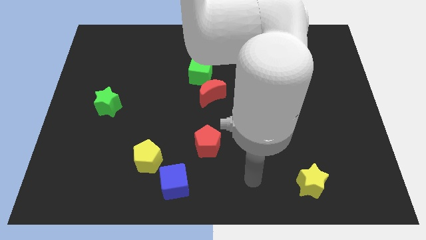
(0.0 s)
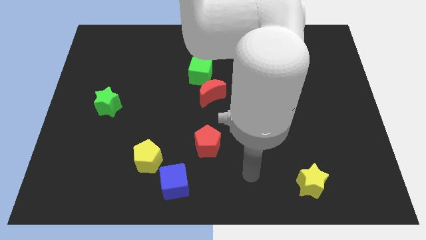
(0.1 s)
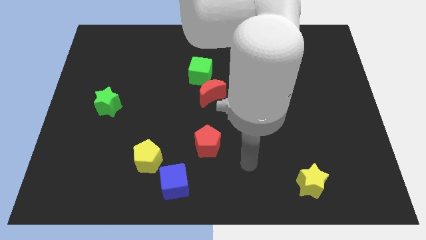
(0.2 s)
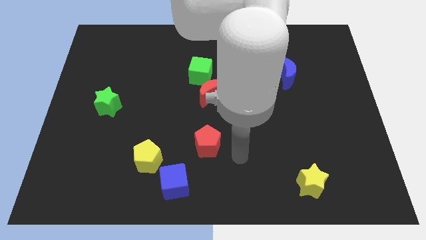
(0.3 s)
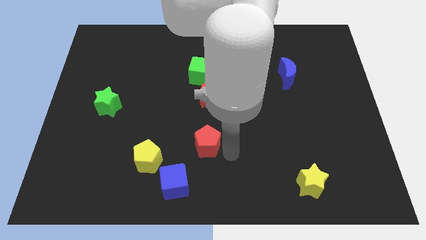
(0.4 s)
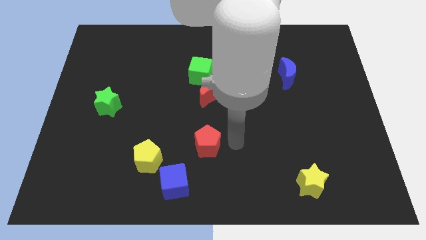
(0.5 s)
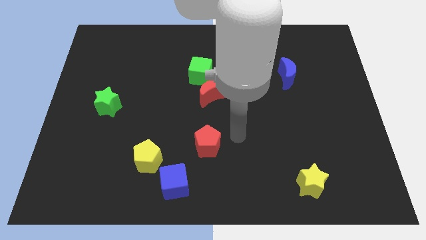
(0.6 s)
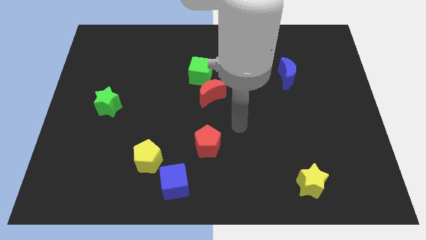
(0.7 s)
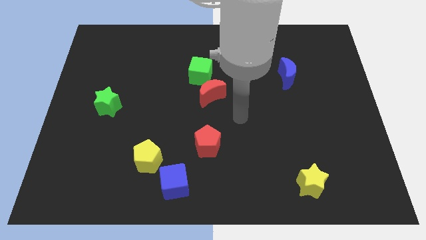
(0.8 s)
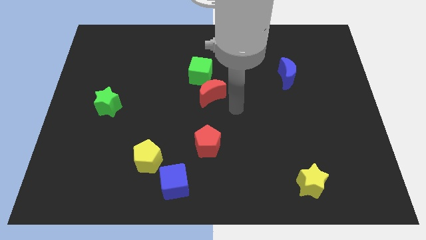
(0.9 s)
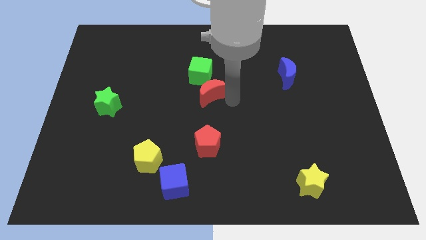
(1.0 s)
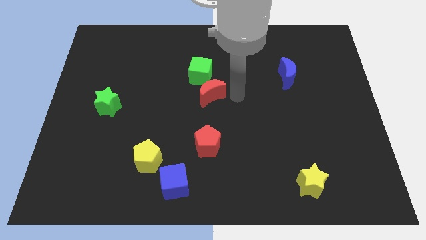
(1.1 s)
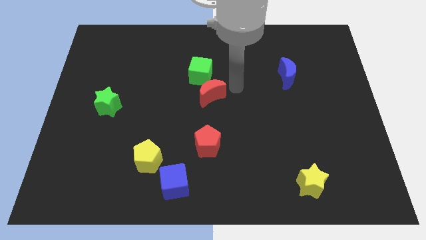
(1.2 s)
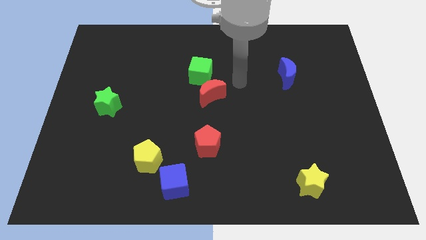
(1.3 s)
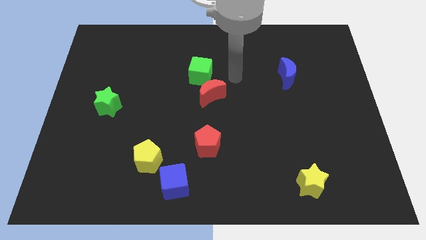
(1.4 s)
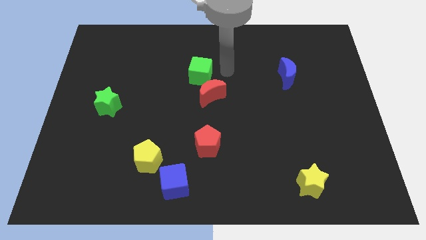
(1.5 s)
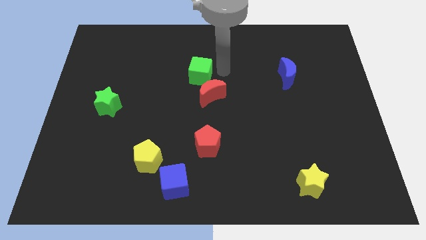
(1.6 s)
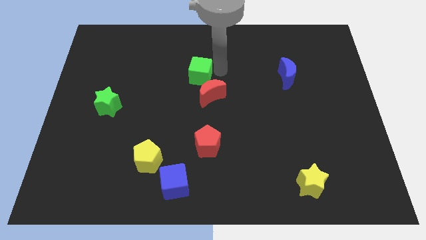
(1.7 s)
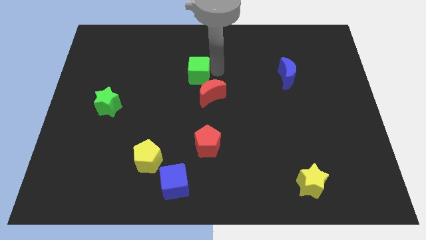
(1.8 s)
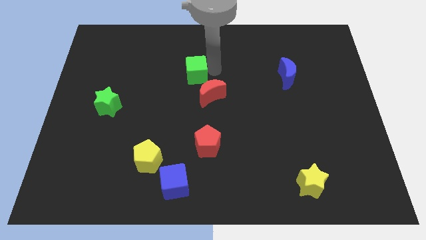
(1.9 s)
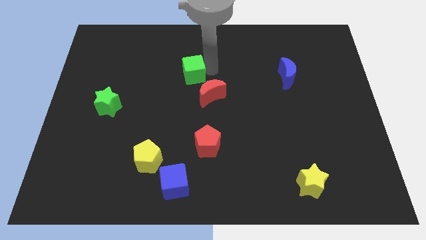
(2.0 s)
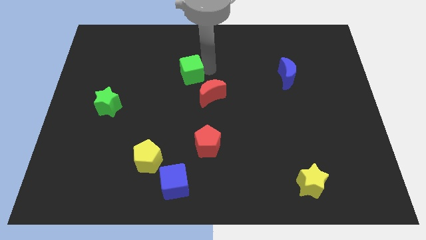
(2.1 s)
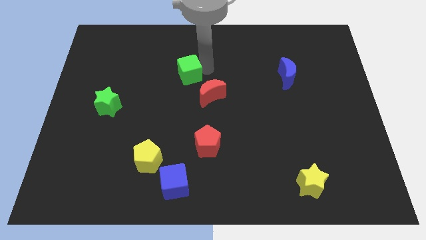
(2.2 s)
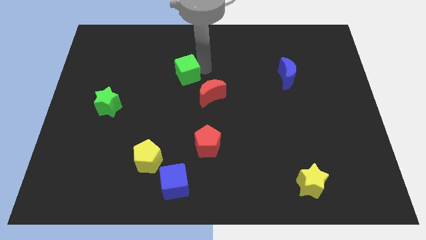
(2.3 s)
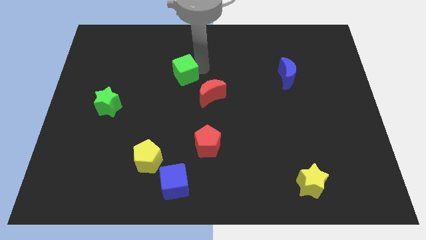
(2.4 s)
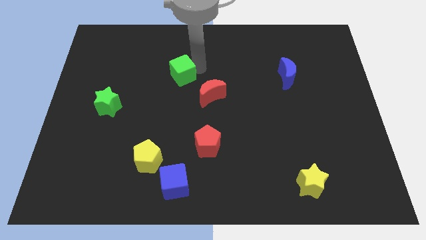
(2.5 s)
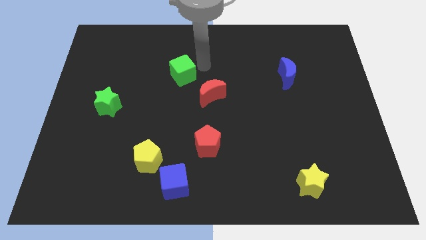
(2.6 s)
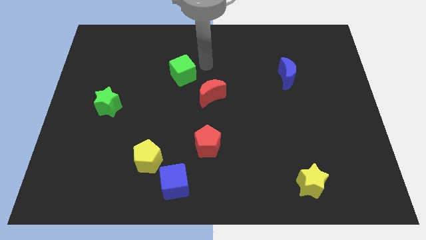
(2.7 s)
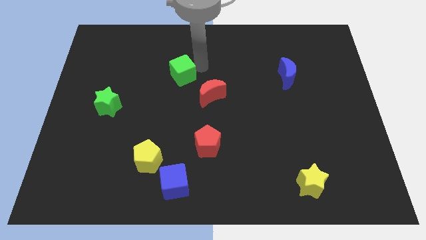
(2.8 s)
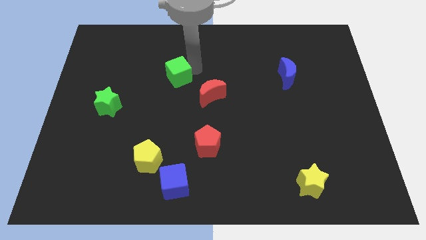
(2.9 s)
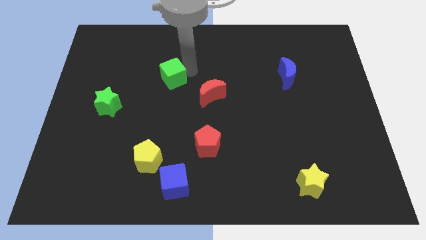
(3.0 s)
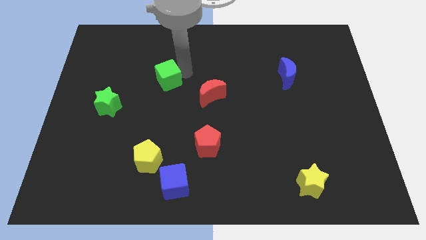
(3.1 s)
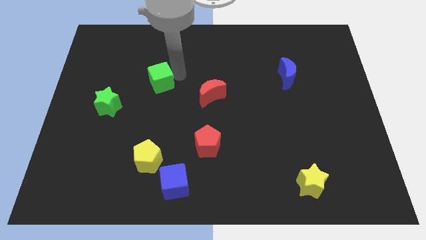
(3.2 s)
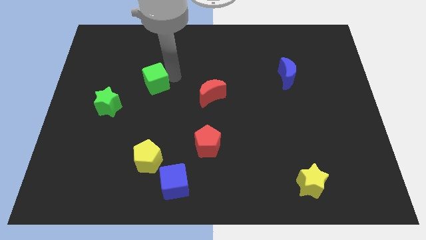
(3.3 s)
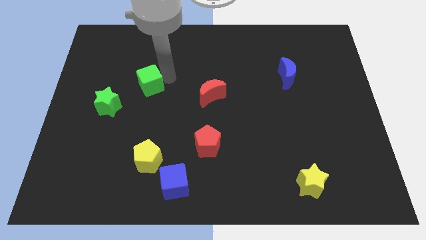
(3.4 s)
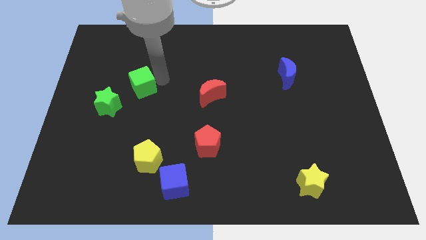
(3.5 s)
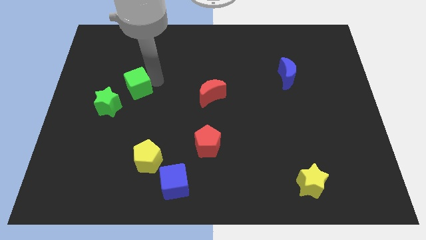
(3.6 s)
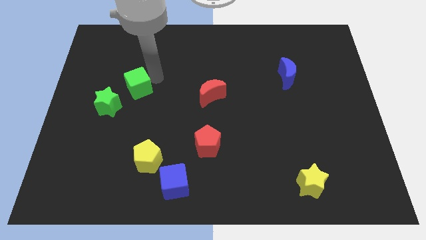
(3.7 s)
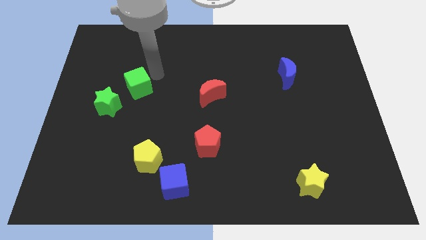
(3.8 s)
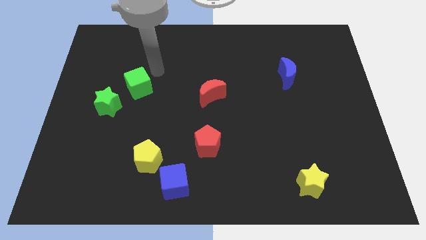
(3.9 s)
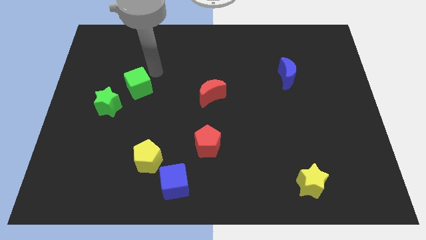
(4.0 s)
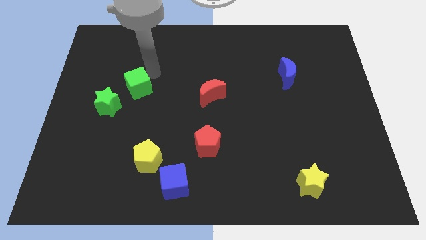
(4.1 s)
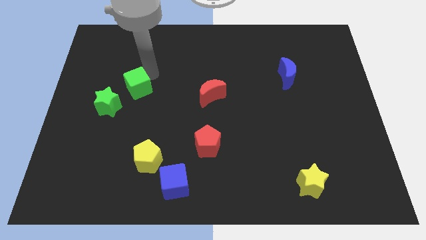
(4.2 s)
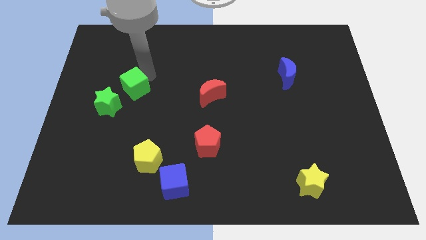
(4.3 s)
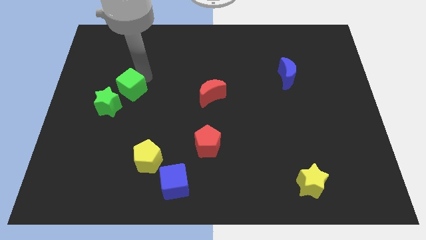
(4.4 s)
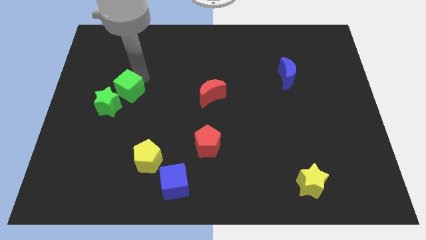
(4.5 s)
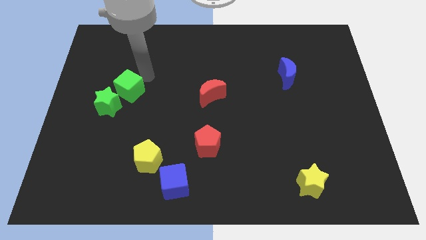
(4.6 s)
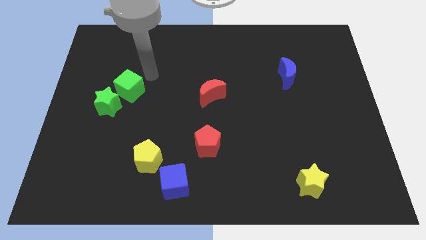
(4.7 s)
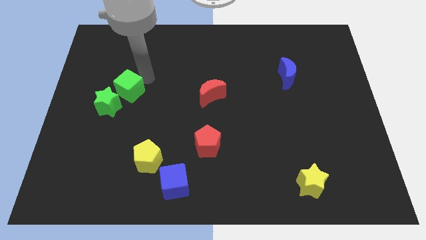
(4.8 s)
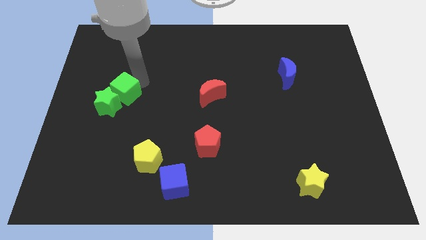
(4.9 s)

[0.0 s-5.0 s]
push the green cube to the green star

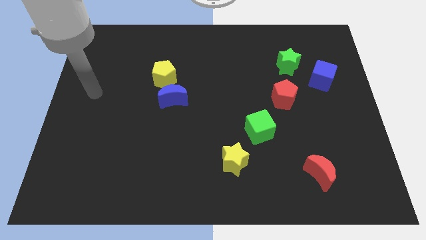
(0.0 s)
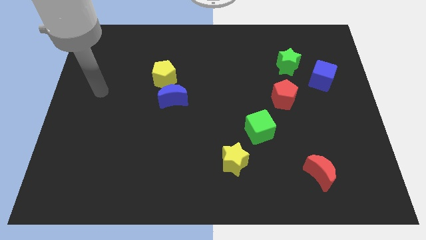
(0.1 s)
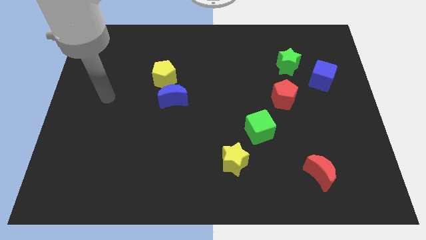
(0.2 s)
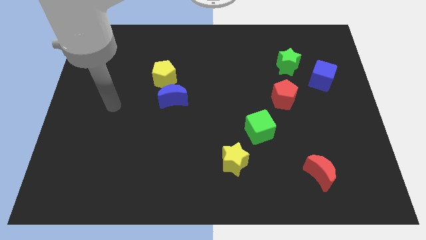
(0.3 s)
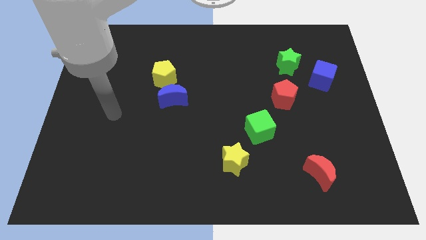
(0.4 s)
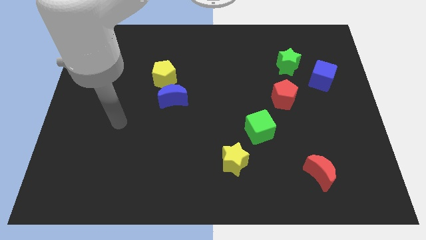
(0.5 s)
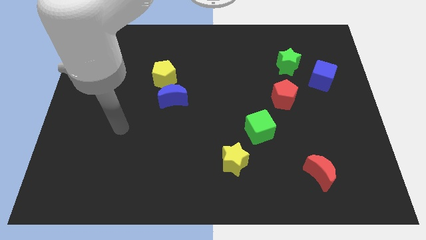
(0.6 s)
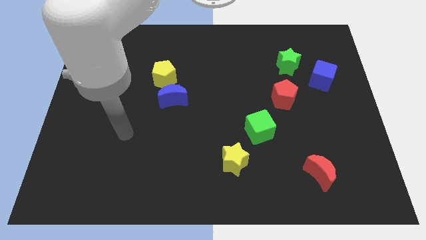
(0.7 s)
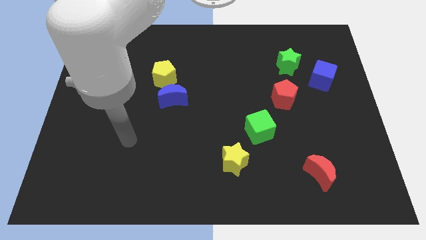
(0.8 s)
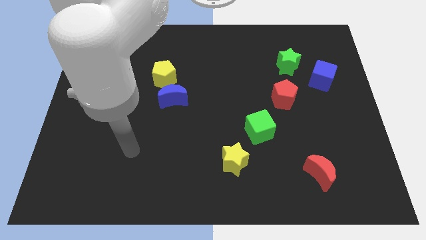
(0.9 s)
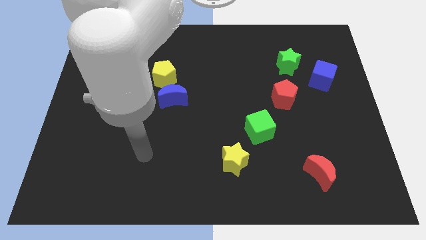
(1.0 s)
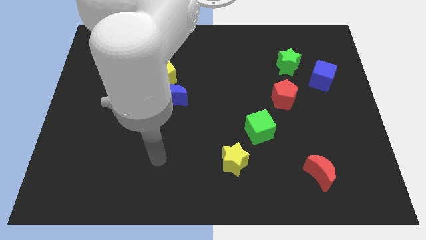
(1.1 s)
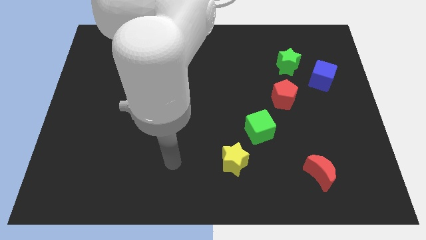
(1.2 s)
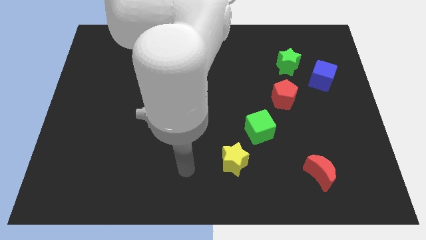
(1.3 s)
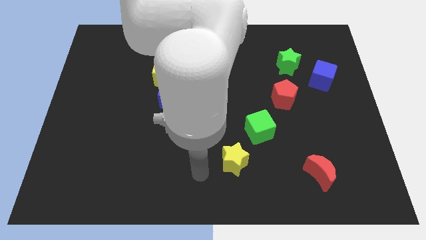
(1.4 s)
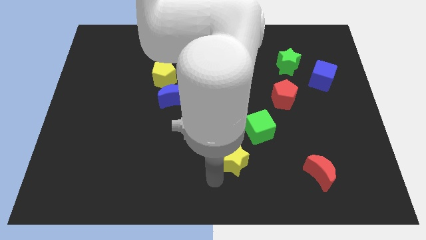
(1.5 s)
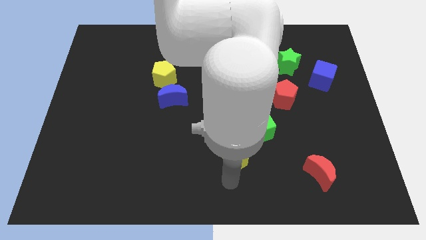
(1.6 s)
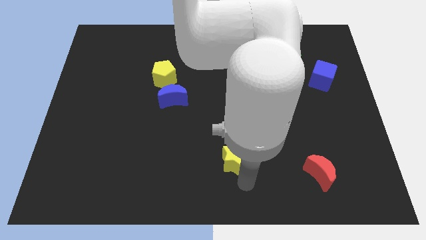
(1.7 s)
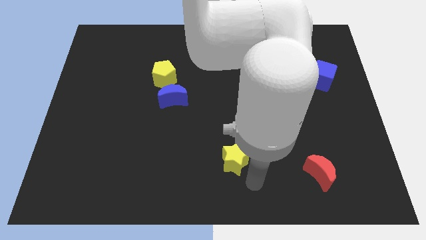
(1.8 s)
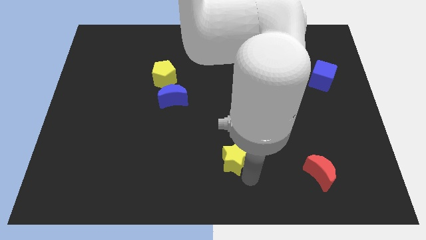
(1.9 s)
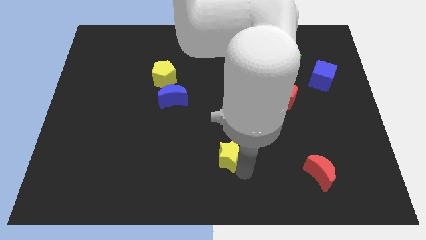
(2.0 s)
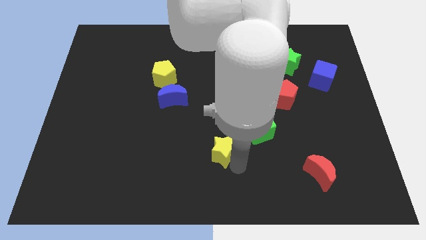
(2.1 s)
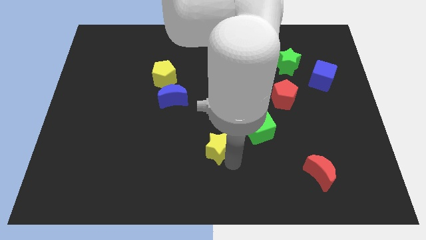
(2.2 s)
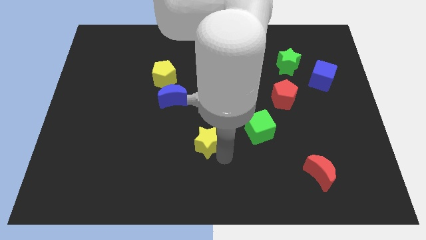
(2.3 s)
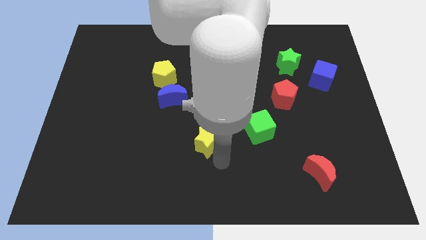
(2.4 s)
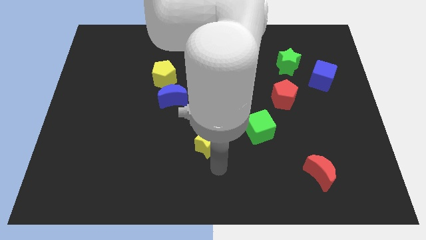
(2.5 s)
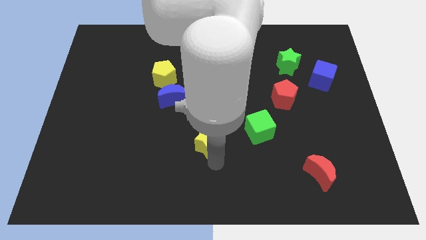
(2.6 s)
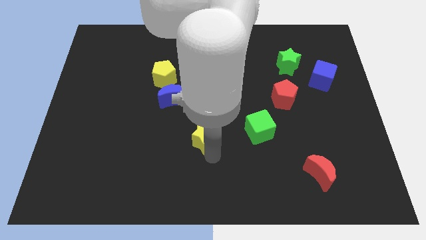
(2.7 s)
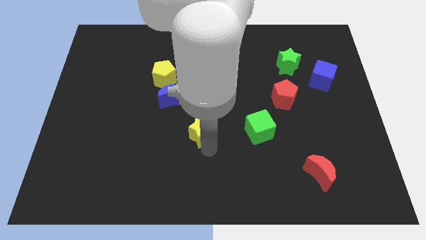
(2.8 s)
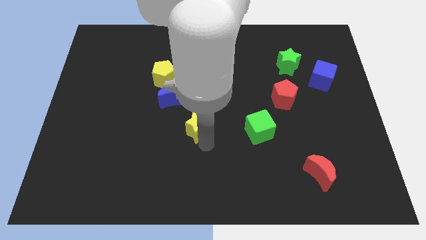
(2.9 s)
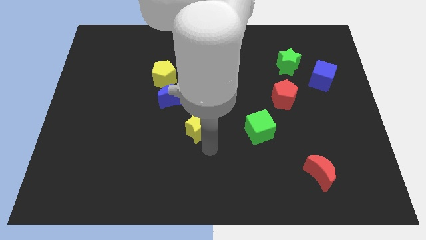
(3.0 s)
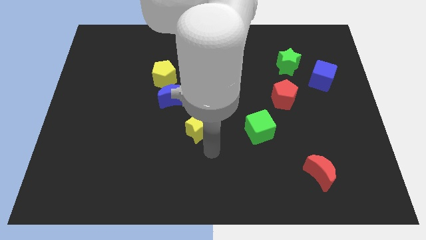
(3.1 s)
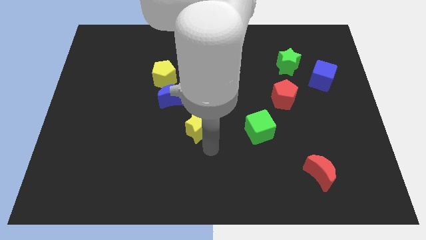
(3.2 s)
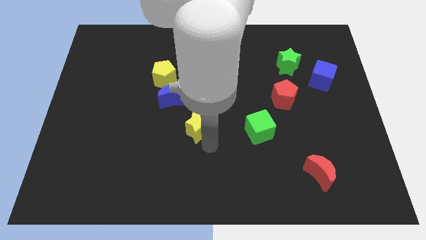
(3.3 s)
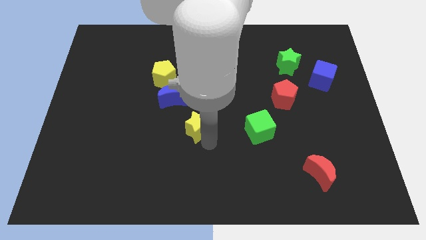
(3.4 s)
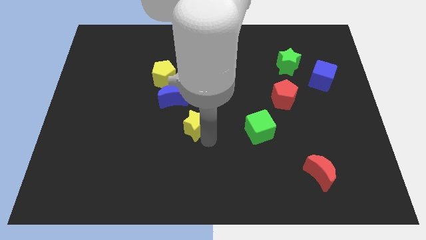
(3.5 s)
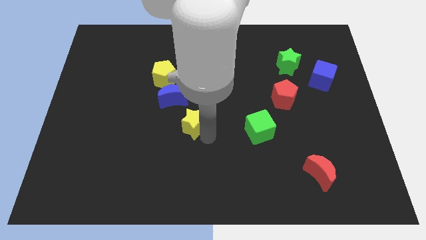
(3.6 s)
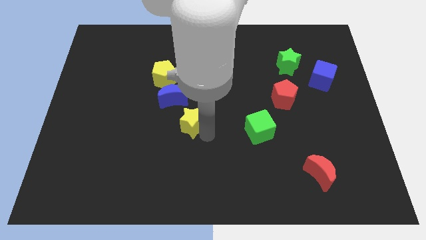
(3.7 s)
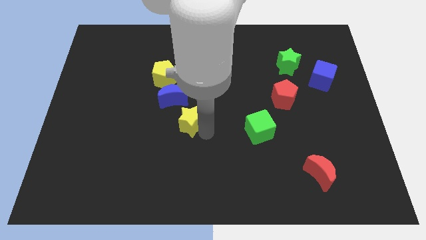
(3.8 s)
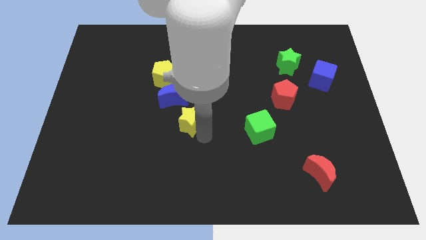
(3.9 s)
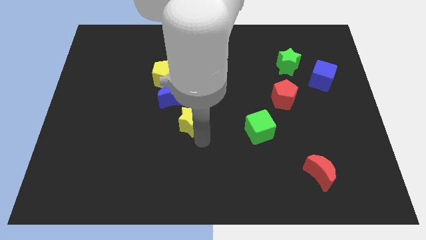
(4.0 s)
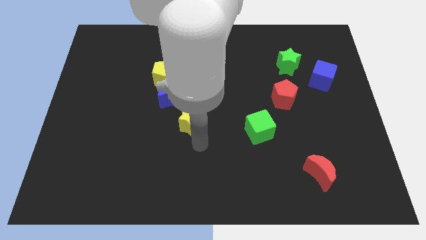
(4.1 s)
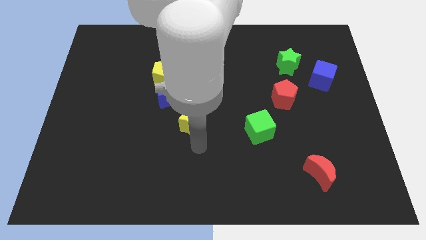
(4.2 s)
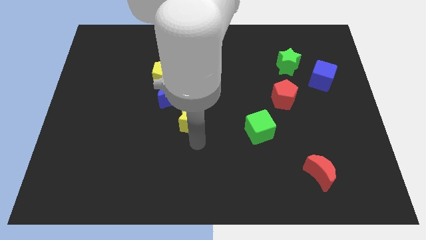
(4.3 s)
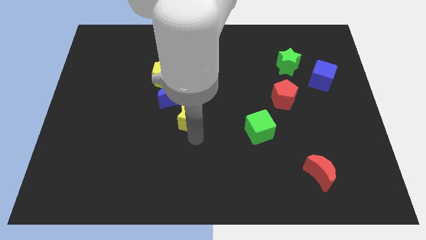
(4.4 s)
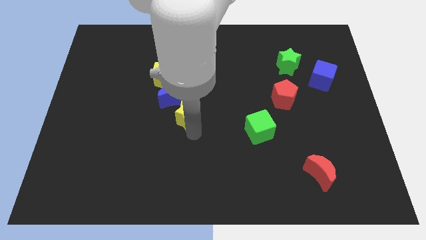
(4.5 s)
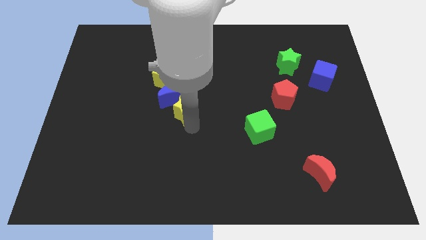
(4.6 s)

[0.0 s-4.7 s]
slide the yellow star next to the blue moon
